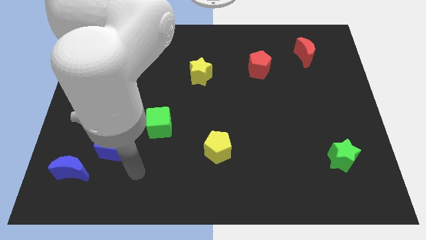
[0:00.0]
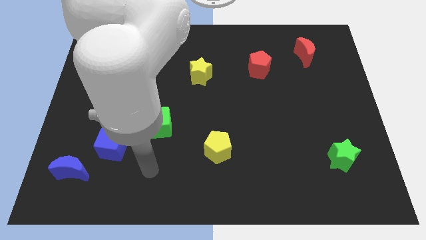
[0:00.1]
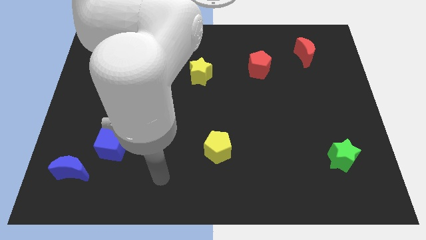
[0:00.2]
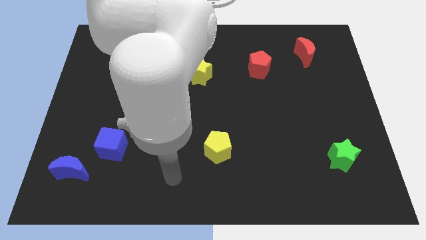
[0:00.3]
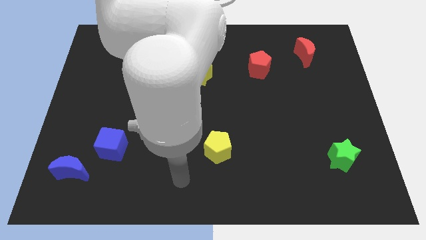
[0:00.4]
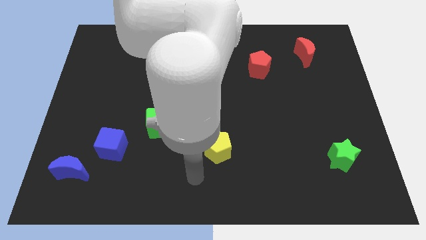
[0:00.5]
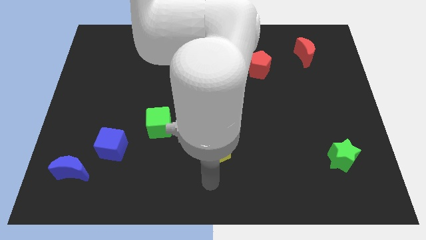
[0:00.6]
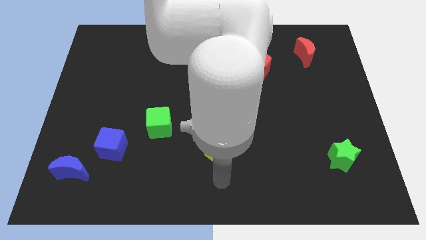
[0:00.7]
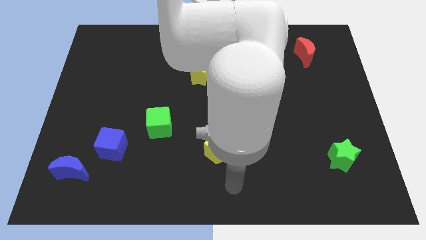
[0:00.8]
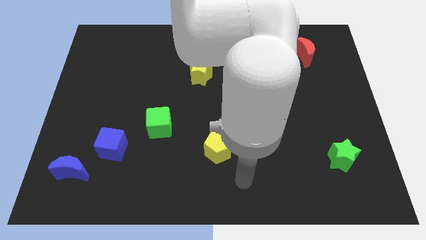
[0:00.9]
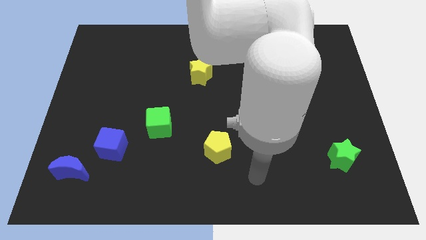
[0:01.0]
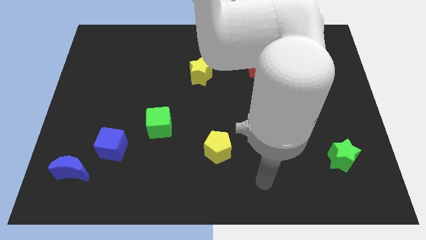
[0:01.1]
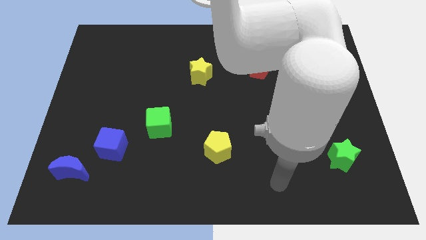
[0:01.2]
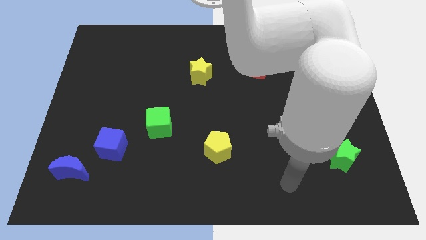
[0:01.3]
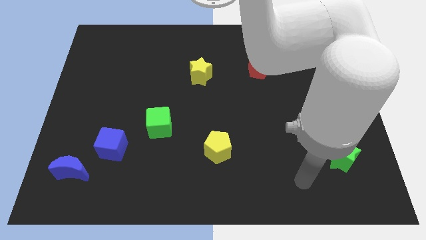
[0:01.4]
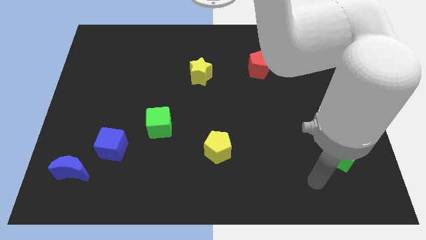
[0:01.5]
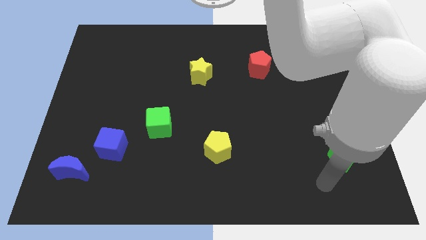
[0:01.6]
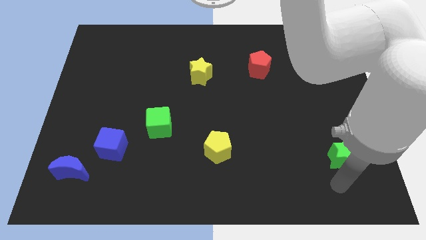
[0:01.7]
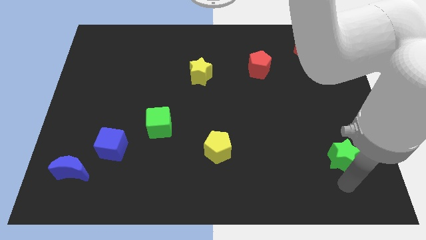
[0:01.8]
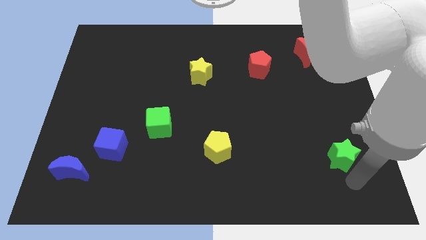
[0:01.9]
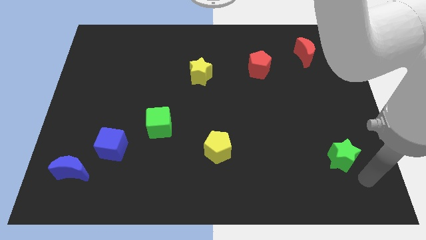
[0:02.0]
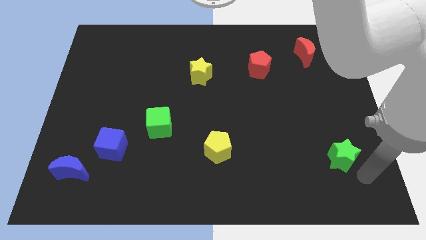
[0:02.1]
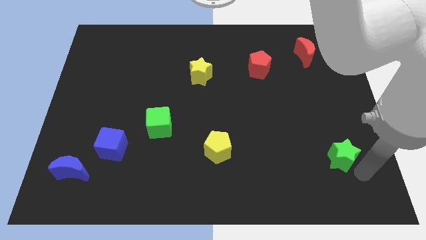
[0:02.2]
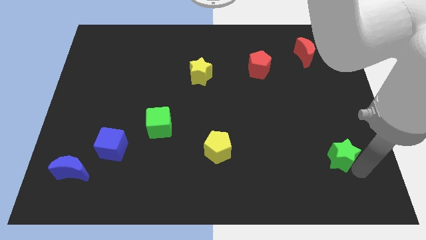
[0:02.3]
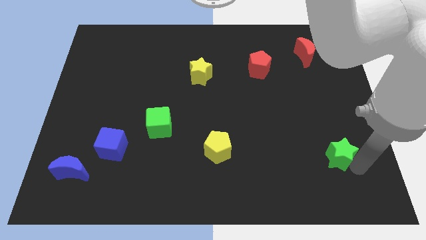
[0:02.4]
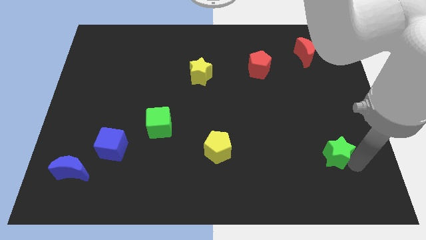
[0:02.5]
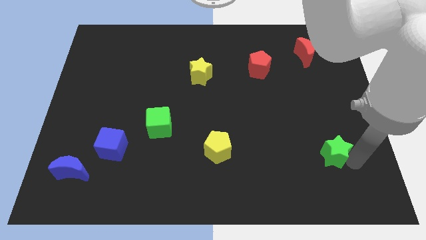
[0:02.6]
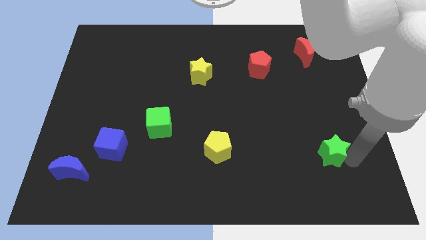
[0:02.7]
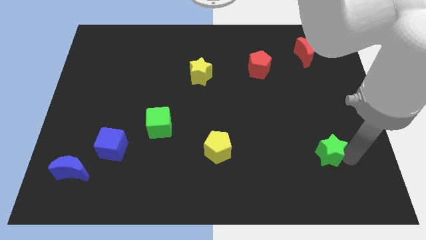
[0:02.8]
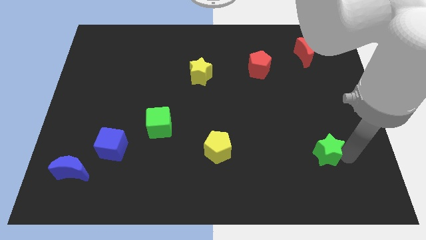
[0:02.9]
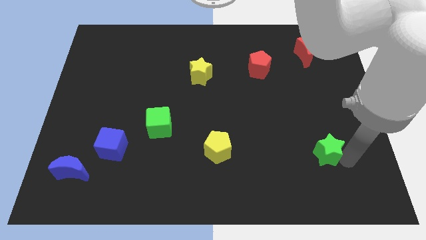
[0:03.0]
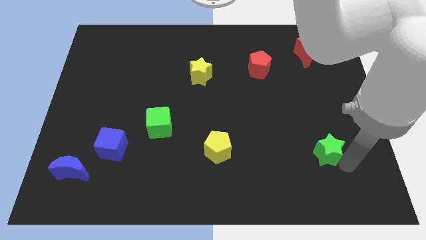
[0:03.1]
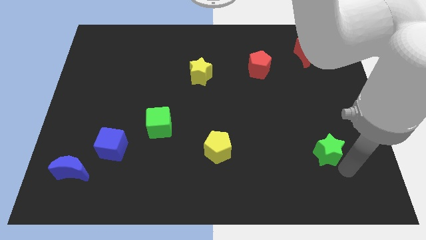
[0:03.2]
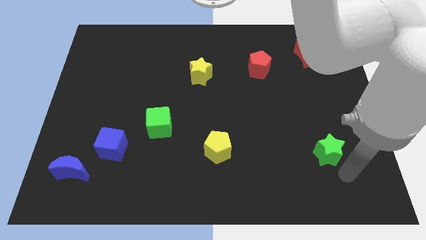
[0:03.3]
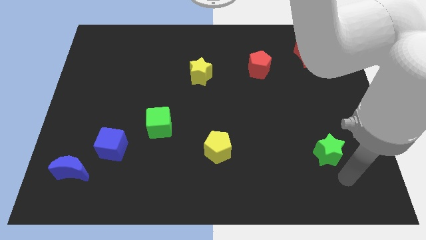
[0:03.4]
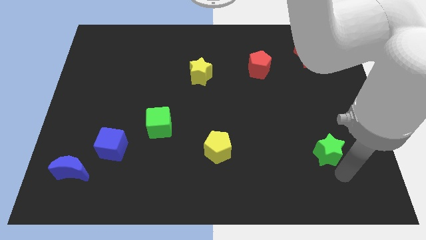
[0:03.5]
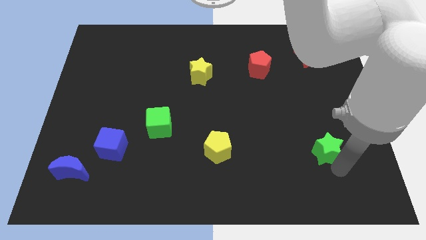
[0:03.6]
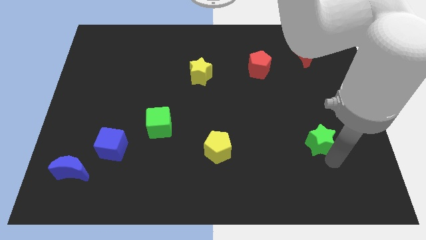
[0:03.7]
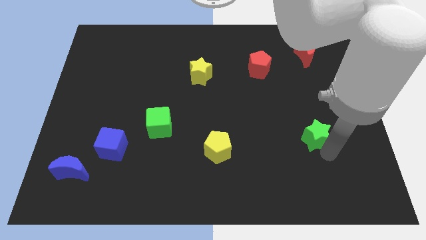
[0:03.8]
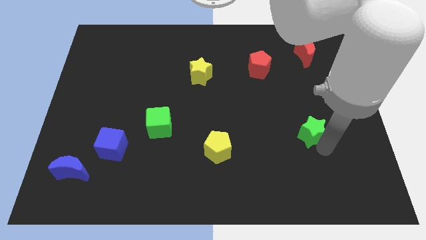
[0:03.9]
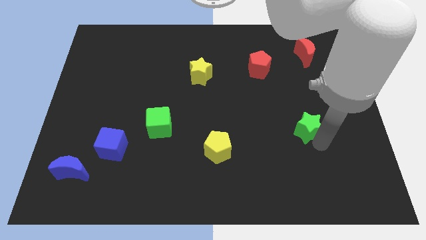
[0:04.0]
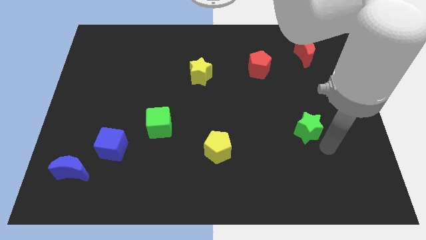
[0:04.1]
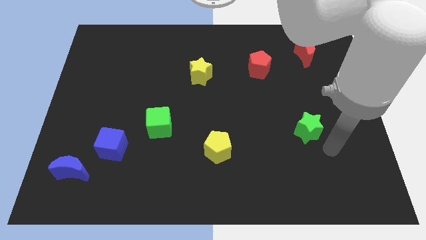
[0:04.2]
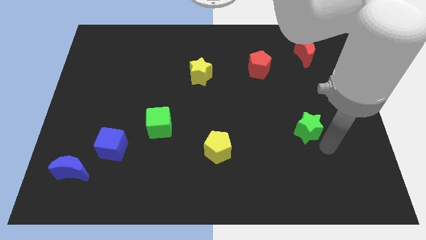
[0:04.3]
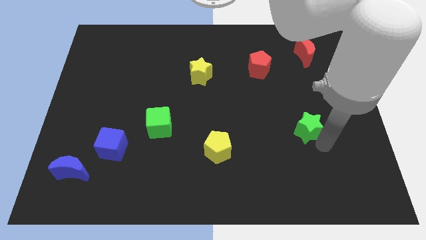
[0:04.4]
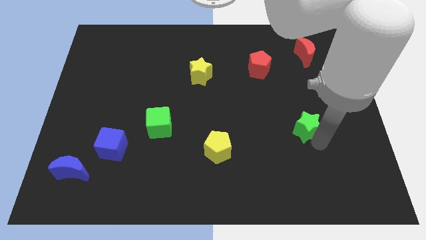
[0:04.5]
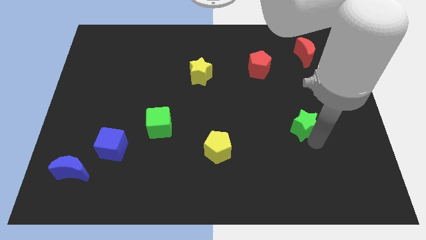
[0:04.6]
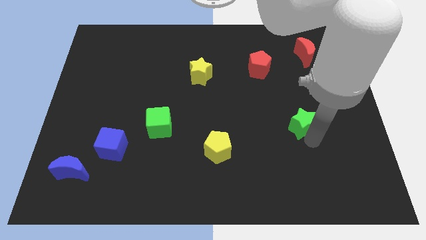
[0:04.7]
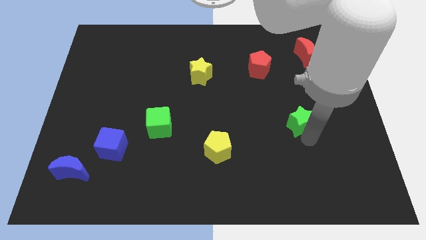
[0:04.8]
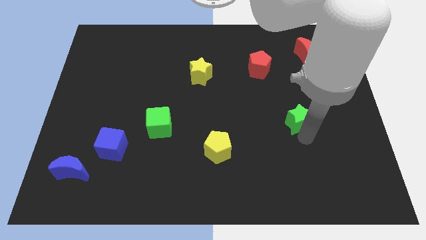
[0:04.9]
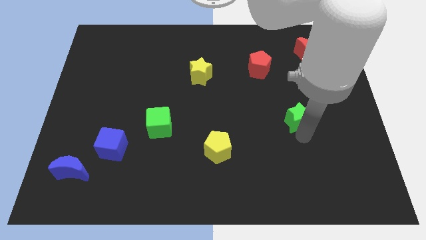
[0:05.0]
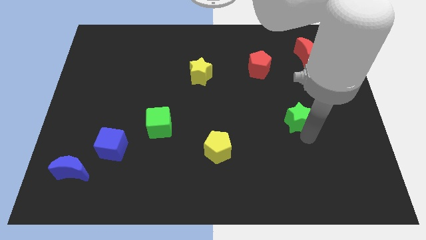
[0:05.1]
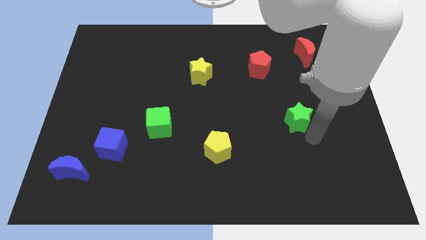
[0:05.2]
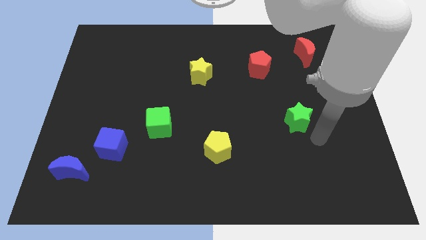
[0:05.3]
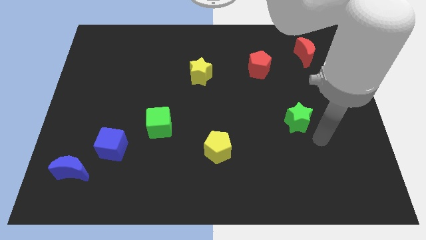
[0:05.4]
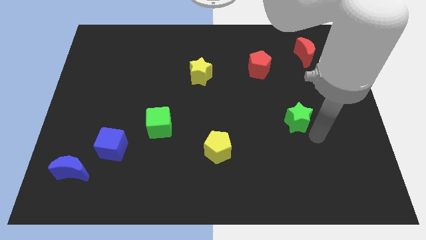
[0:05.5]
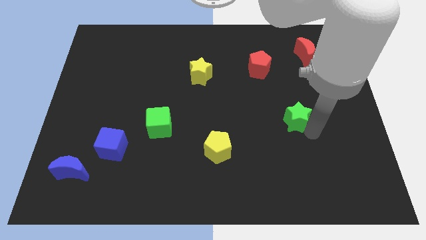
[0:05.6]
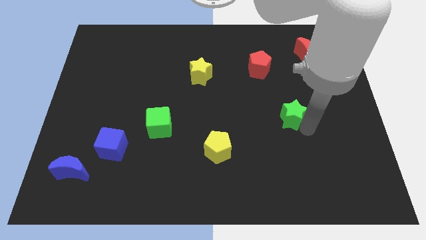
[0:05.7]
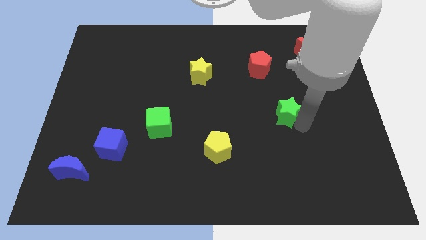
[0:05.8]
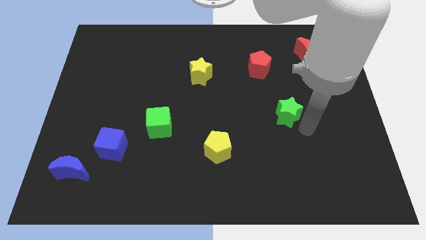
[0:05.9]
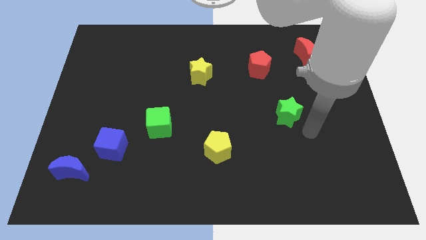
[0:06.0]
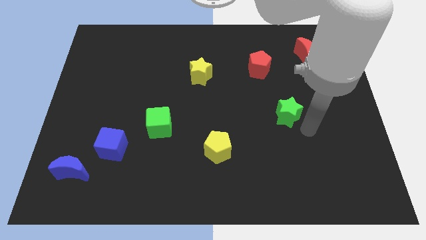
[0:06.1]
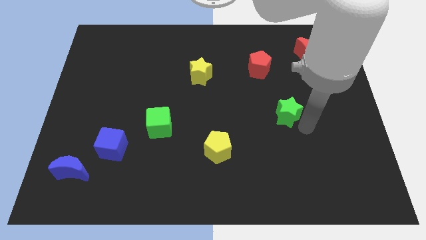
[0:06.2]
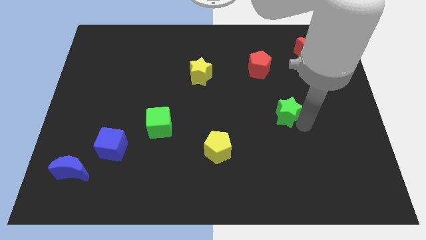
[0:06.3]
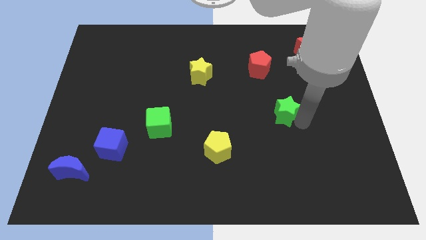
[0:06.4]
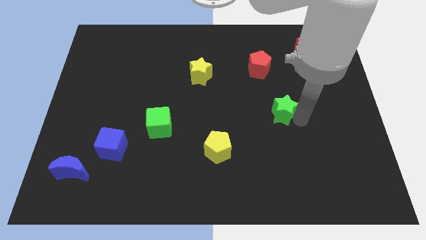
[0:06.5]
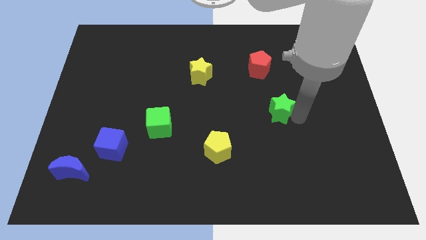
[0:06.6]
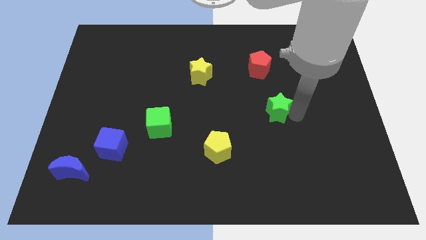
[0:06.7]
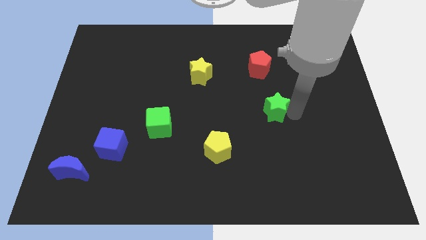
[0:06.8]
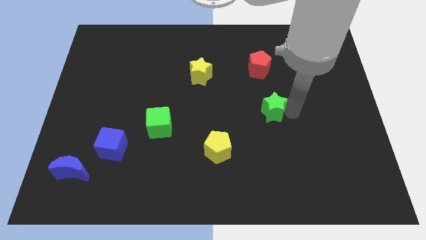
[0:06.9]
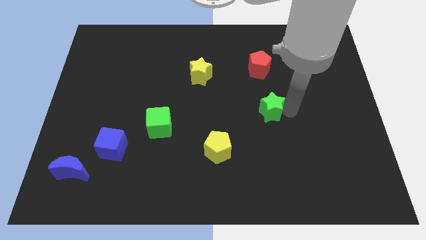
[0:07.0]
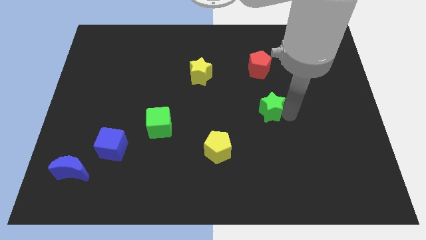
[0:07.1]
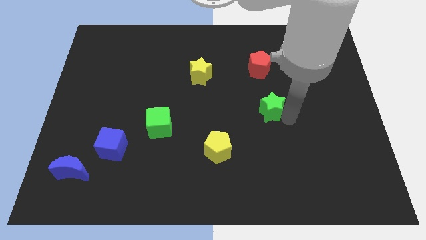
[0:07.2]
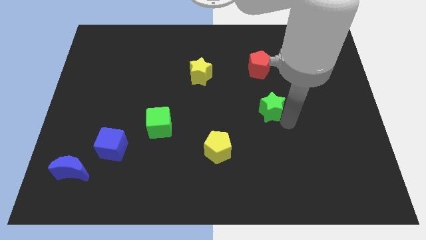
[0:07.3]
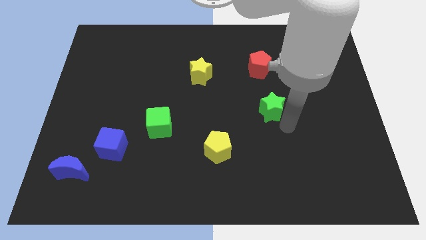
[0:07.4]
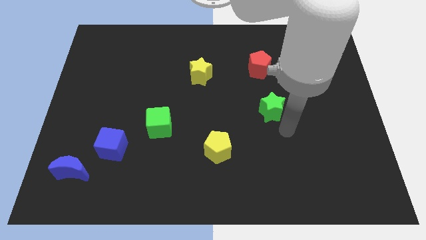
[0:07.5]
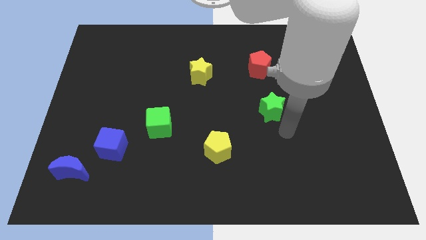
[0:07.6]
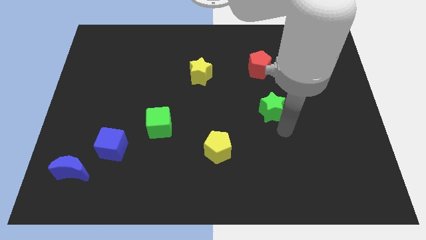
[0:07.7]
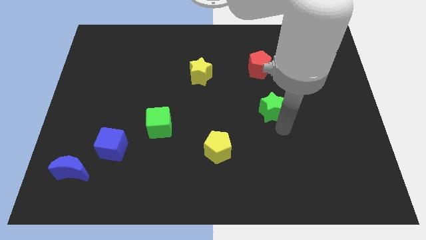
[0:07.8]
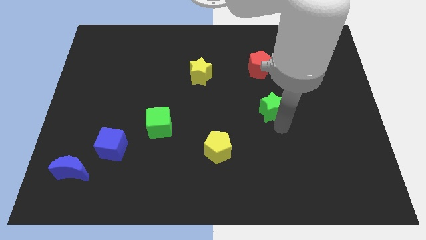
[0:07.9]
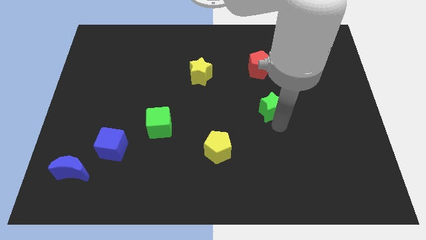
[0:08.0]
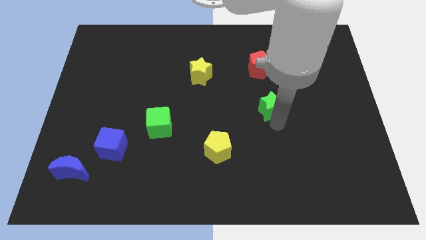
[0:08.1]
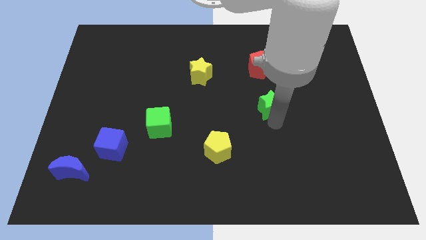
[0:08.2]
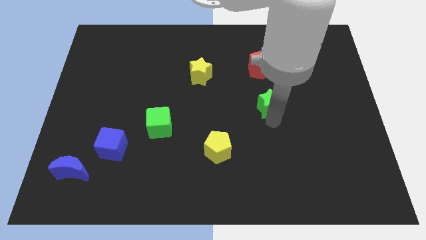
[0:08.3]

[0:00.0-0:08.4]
slide the green star up and to the left
